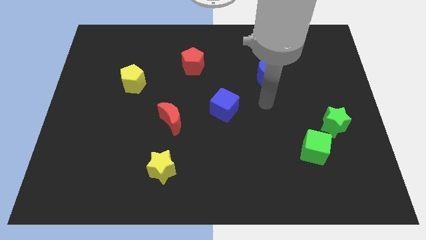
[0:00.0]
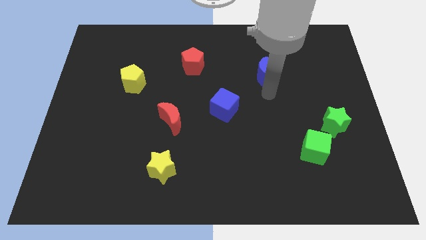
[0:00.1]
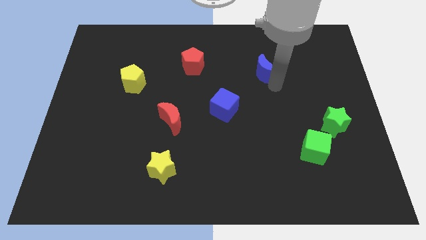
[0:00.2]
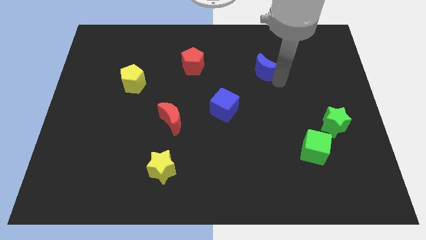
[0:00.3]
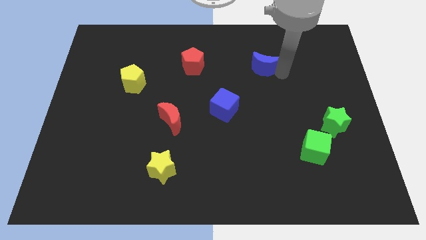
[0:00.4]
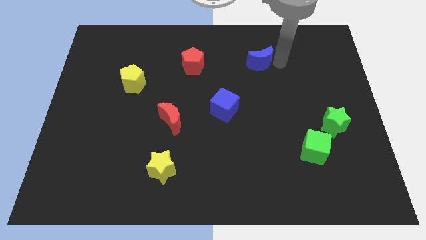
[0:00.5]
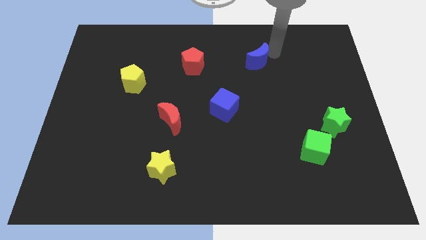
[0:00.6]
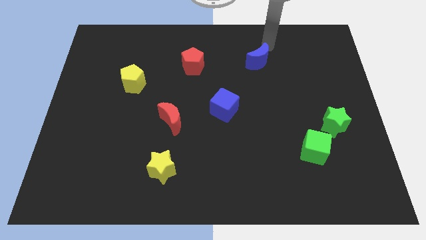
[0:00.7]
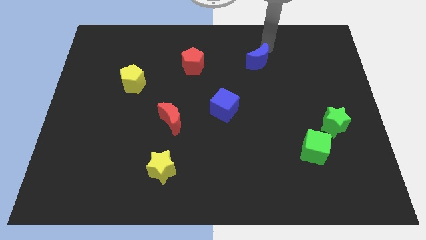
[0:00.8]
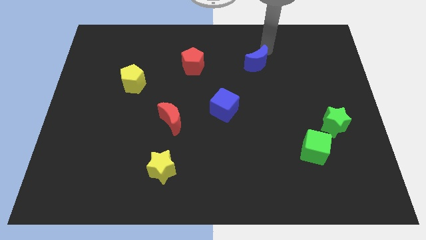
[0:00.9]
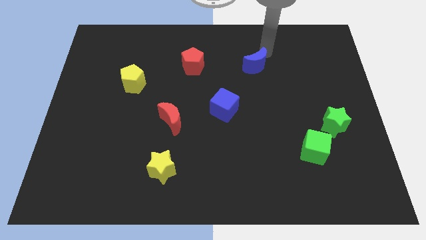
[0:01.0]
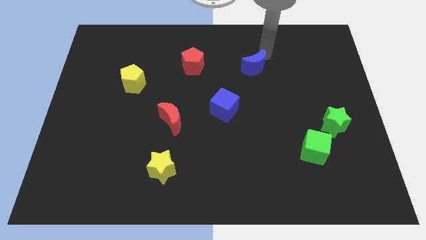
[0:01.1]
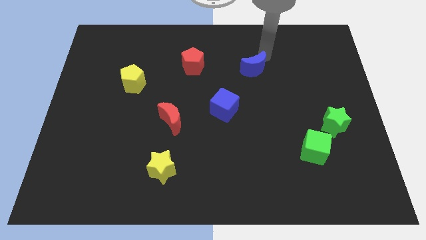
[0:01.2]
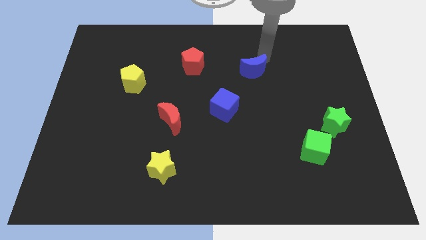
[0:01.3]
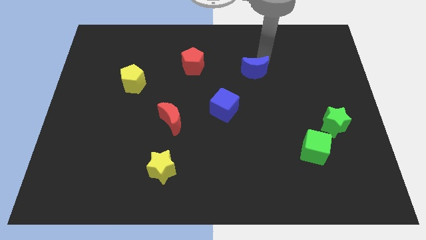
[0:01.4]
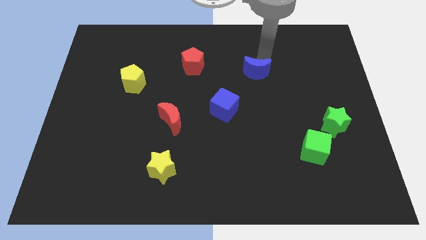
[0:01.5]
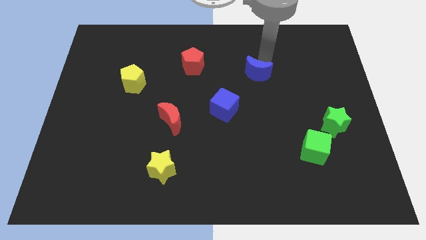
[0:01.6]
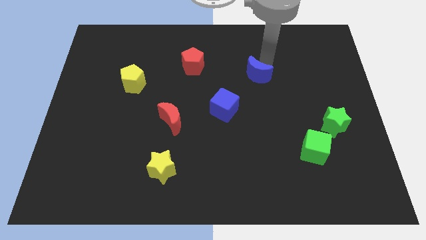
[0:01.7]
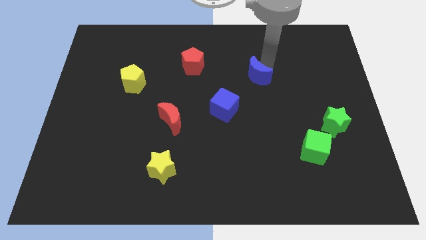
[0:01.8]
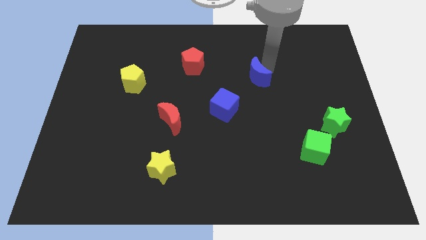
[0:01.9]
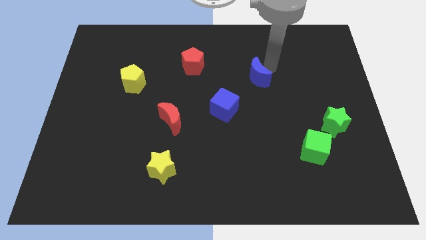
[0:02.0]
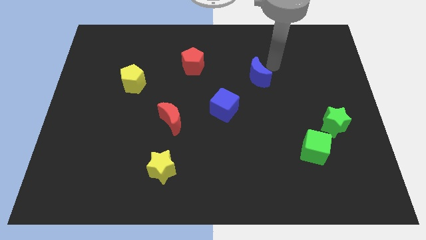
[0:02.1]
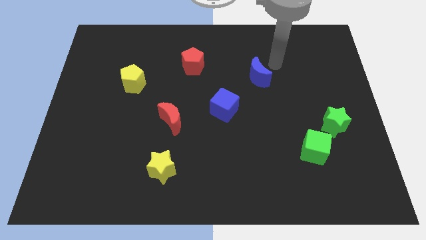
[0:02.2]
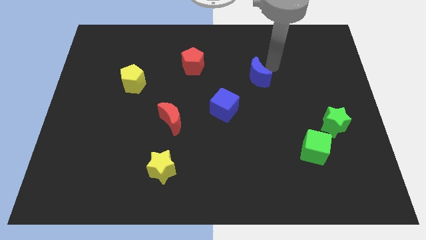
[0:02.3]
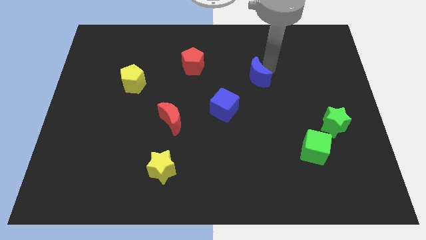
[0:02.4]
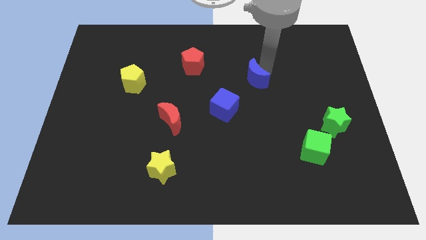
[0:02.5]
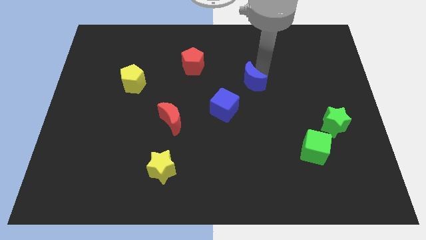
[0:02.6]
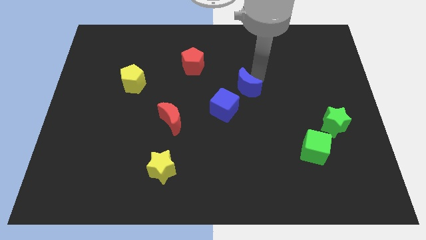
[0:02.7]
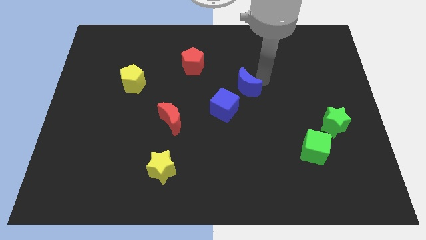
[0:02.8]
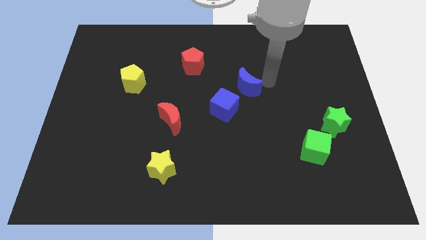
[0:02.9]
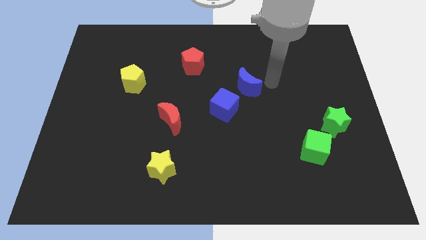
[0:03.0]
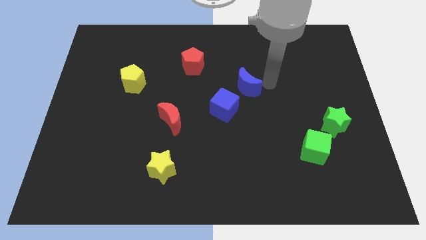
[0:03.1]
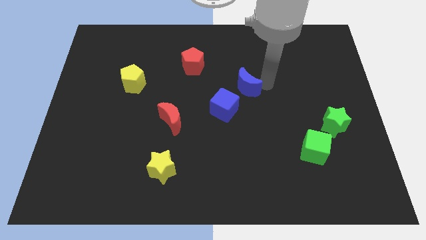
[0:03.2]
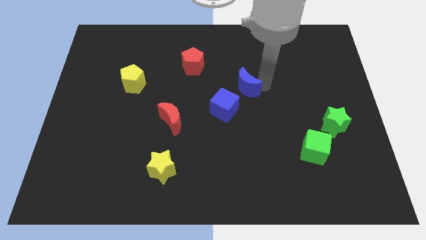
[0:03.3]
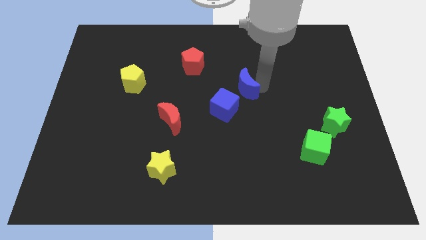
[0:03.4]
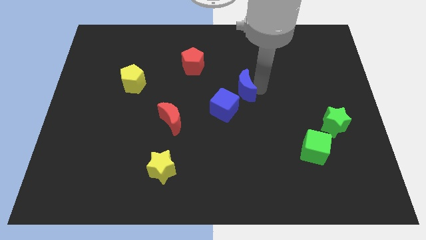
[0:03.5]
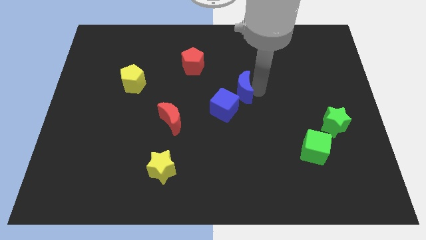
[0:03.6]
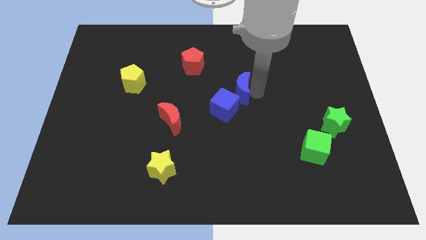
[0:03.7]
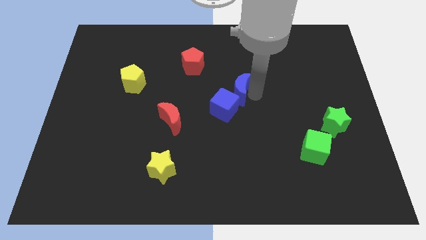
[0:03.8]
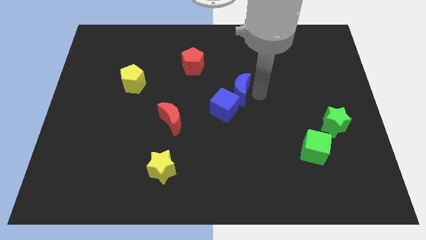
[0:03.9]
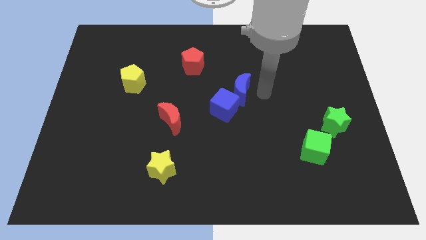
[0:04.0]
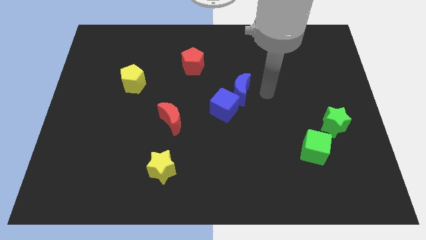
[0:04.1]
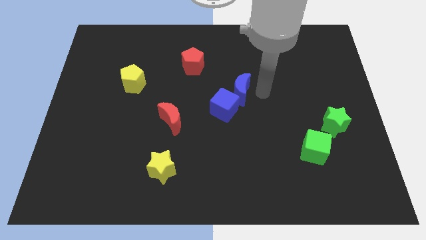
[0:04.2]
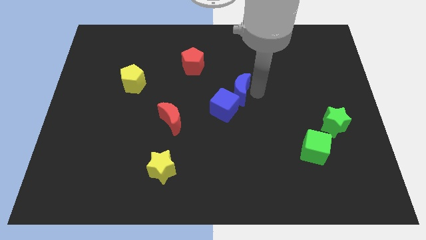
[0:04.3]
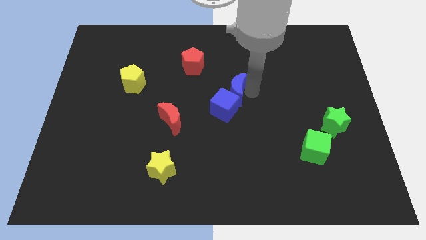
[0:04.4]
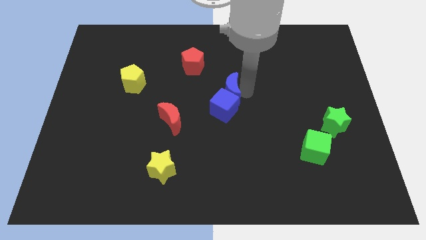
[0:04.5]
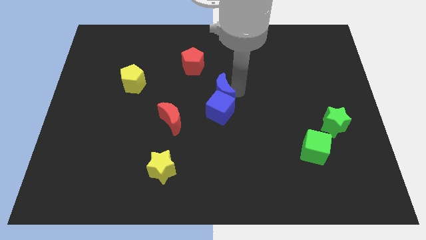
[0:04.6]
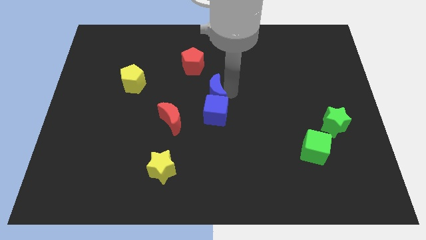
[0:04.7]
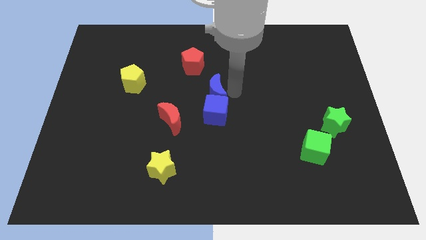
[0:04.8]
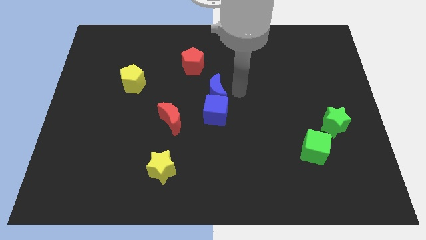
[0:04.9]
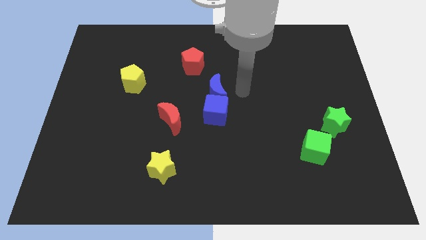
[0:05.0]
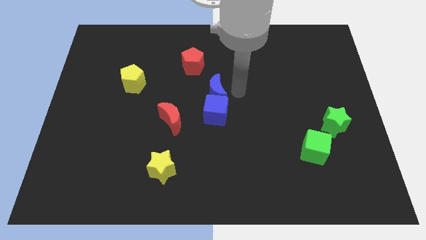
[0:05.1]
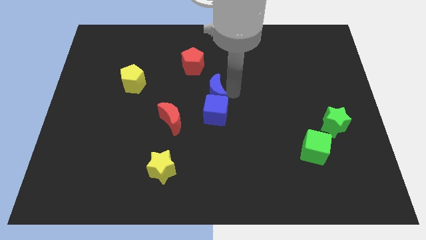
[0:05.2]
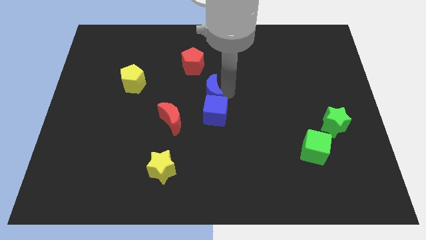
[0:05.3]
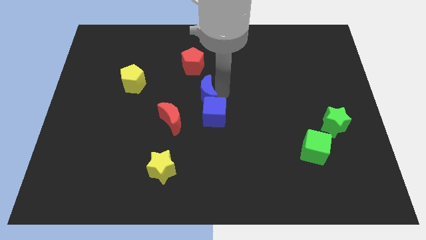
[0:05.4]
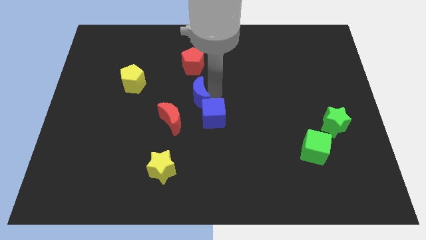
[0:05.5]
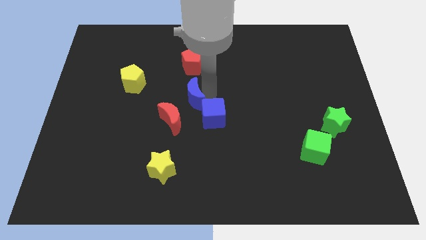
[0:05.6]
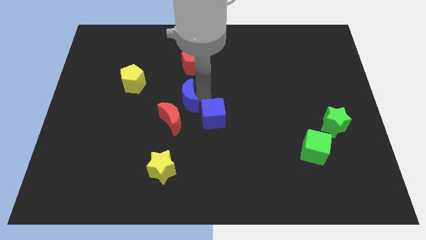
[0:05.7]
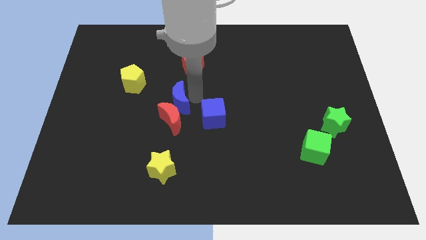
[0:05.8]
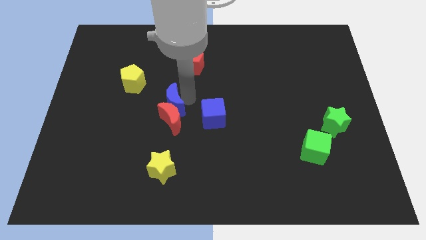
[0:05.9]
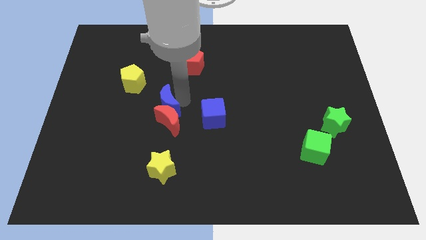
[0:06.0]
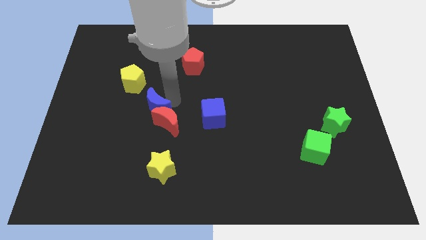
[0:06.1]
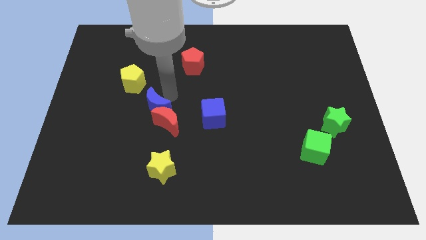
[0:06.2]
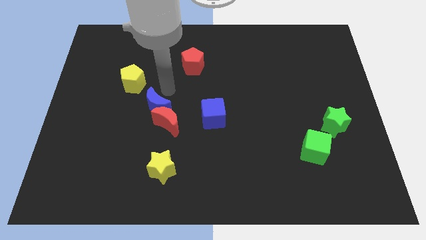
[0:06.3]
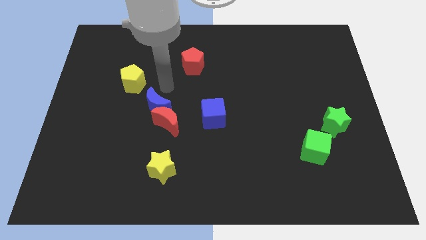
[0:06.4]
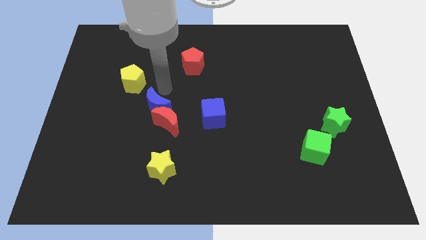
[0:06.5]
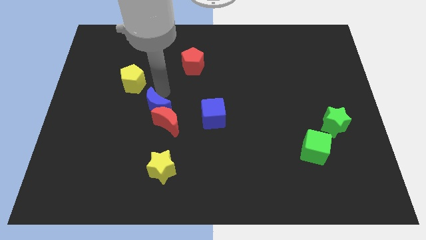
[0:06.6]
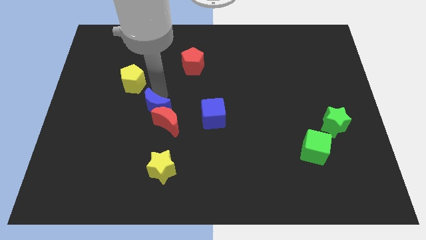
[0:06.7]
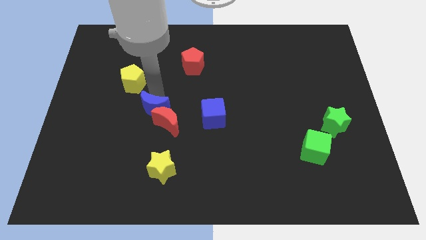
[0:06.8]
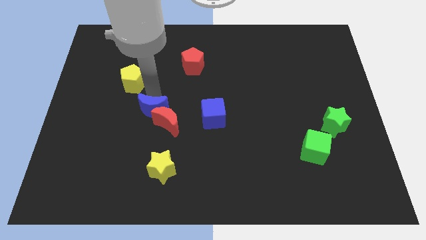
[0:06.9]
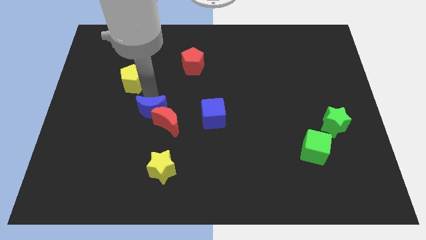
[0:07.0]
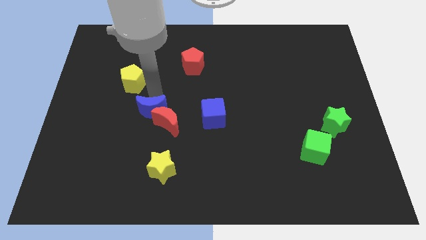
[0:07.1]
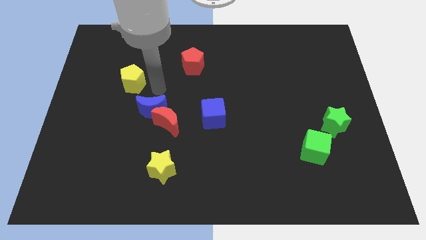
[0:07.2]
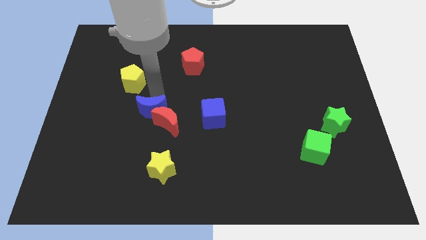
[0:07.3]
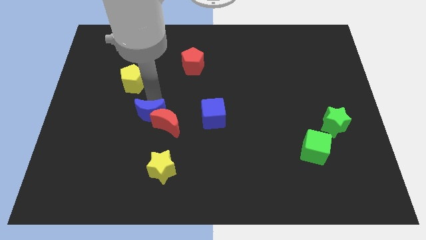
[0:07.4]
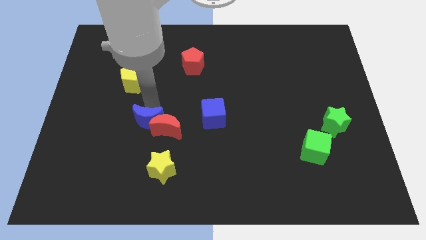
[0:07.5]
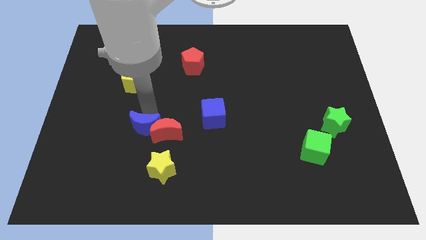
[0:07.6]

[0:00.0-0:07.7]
push the blue moon to the bottom left side of the red moon
